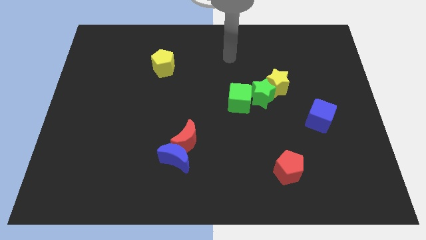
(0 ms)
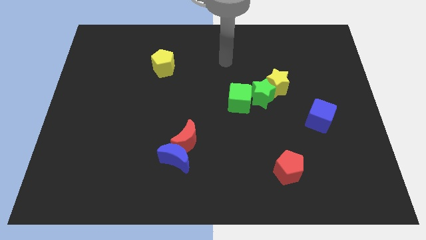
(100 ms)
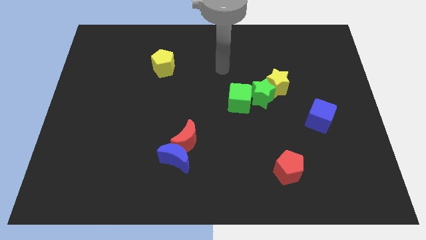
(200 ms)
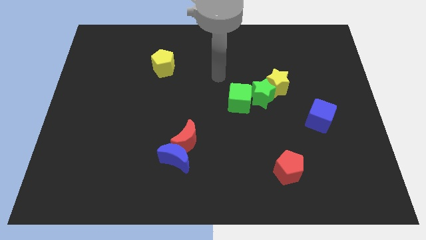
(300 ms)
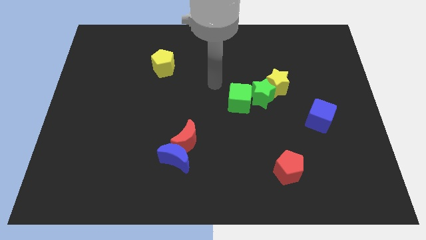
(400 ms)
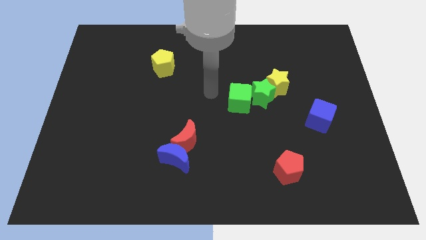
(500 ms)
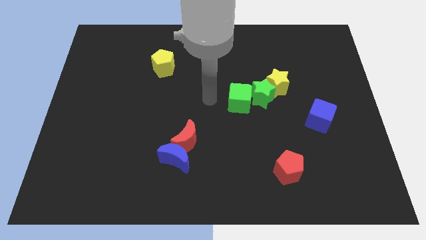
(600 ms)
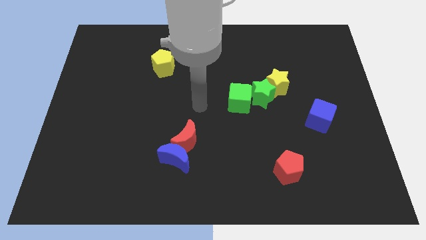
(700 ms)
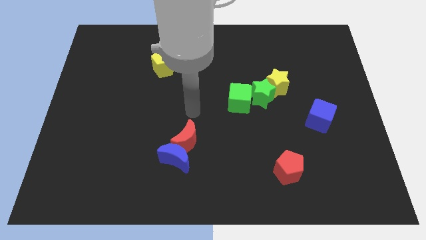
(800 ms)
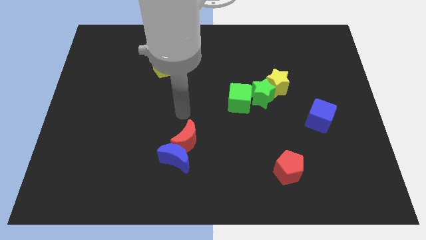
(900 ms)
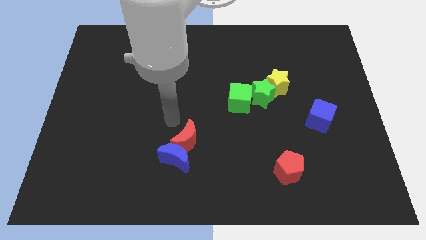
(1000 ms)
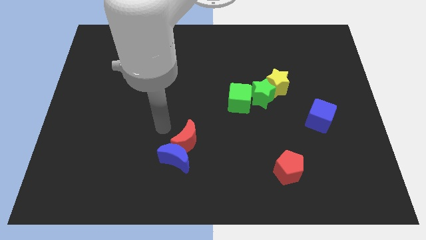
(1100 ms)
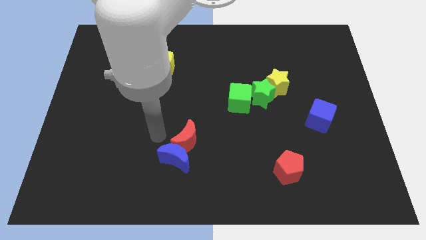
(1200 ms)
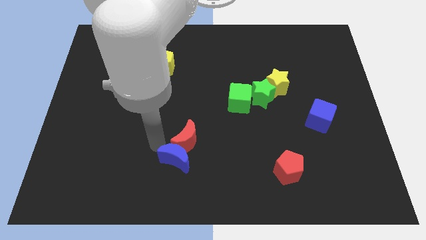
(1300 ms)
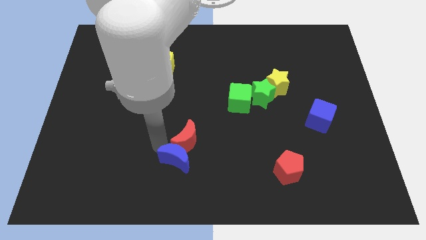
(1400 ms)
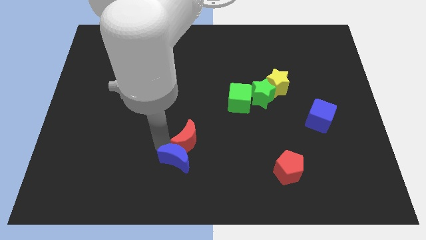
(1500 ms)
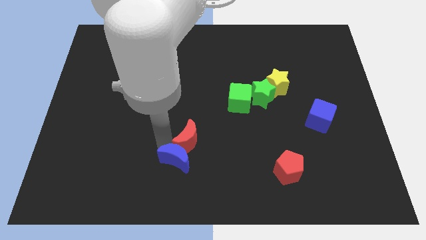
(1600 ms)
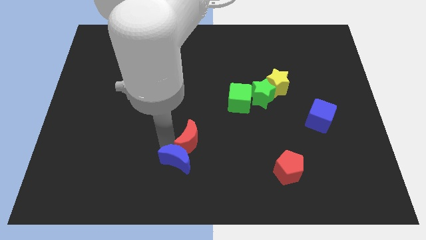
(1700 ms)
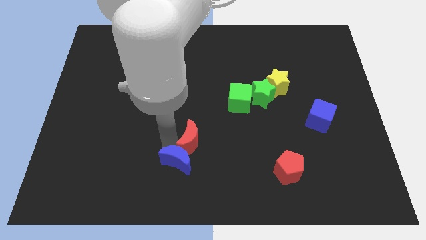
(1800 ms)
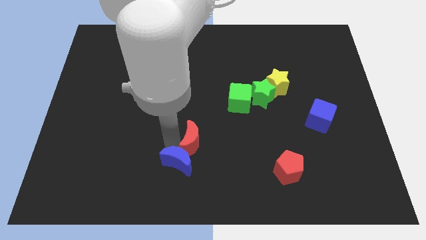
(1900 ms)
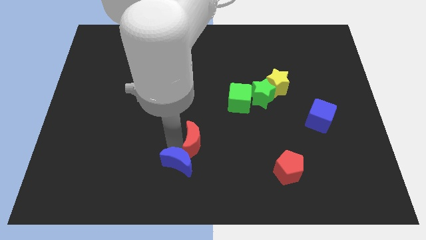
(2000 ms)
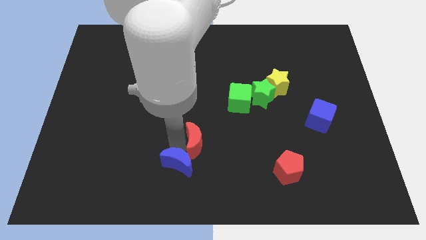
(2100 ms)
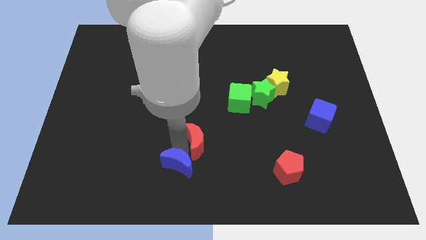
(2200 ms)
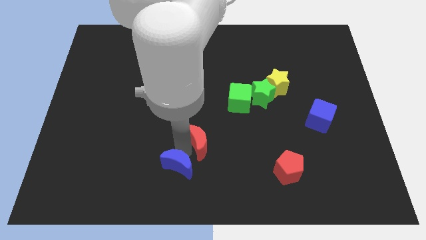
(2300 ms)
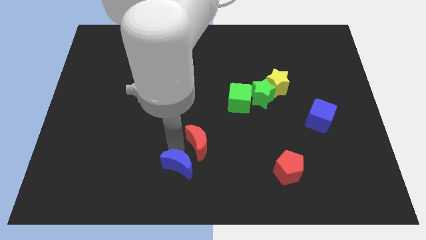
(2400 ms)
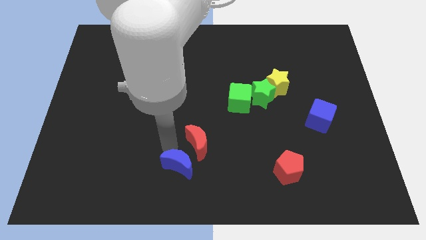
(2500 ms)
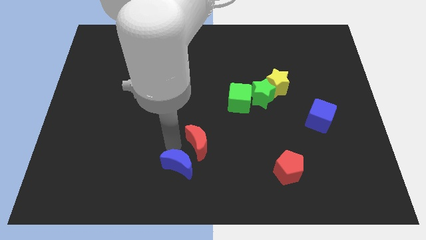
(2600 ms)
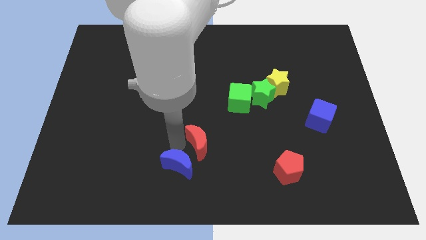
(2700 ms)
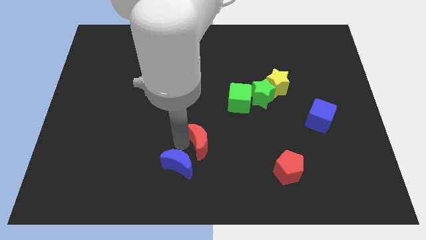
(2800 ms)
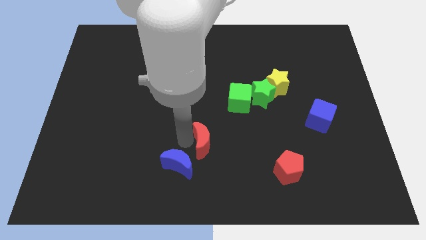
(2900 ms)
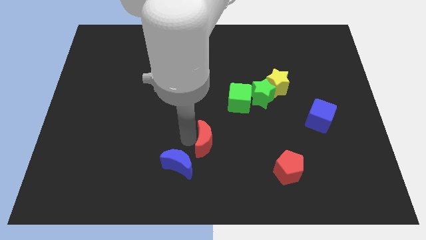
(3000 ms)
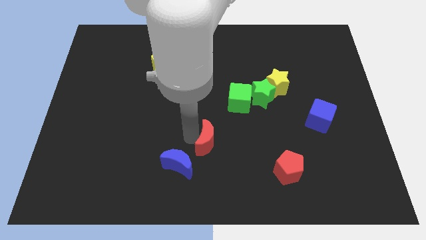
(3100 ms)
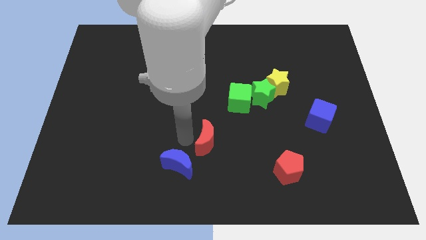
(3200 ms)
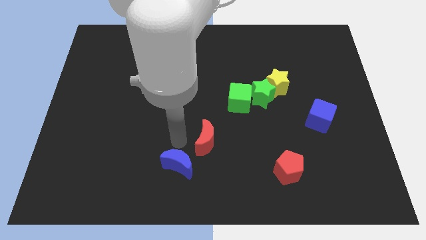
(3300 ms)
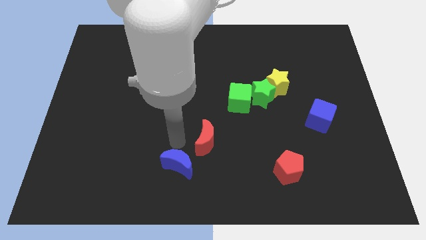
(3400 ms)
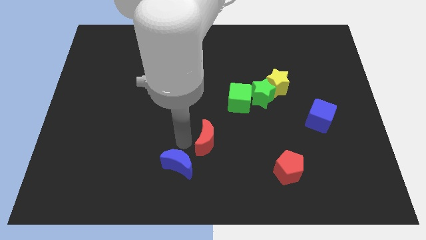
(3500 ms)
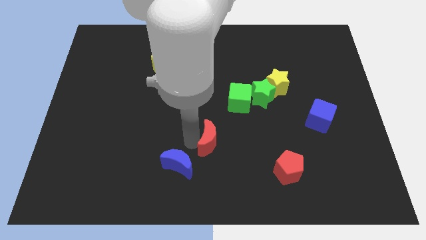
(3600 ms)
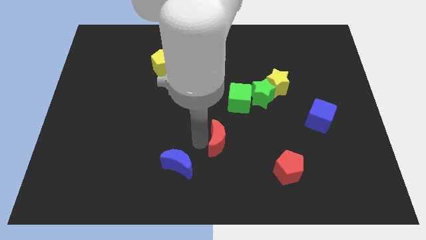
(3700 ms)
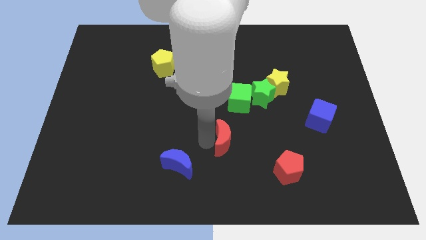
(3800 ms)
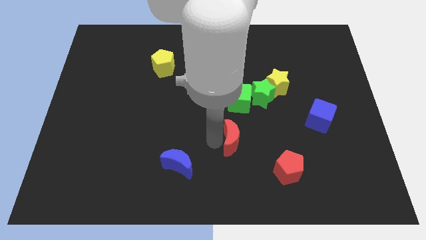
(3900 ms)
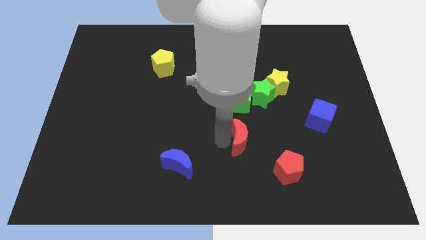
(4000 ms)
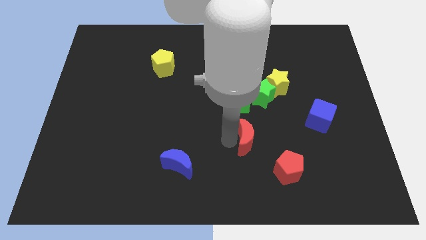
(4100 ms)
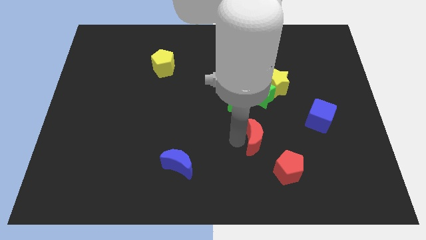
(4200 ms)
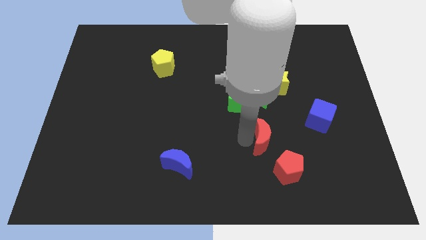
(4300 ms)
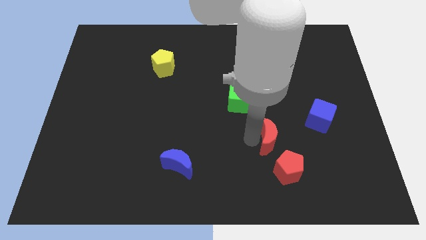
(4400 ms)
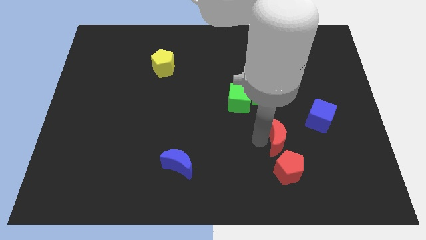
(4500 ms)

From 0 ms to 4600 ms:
move the red moon right

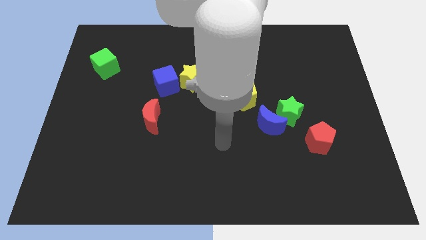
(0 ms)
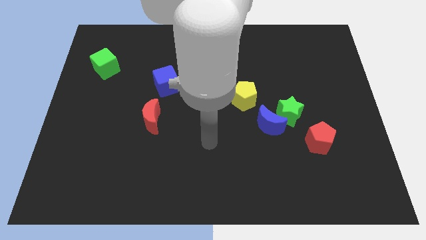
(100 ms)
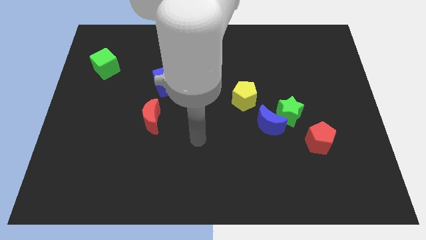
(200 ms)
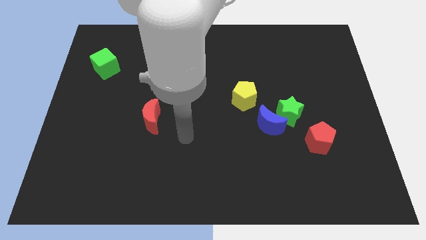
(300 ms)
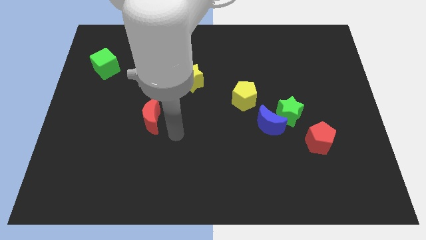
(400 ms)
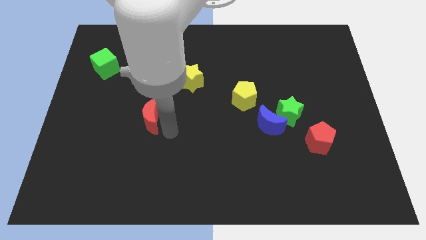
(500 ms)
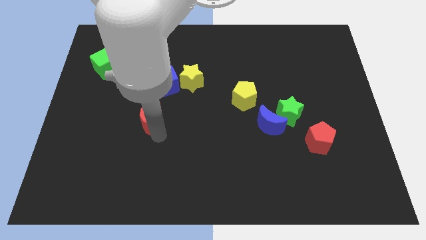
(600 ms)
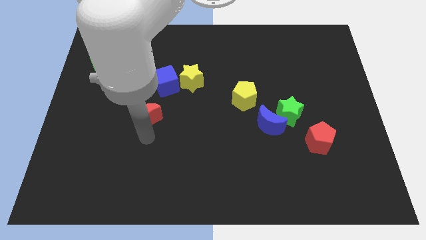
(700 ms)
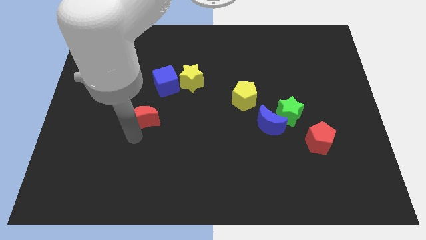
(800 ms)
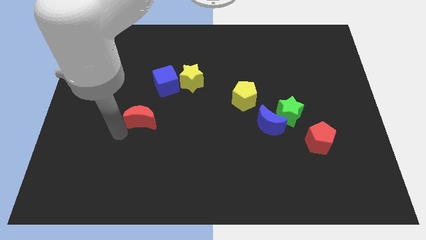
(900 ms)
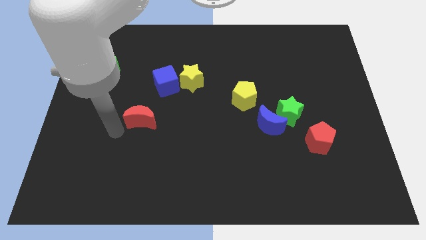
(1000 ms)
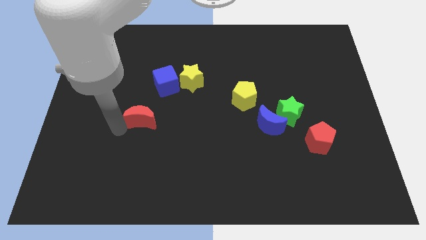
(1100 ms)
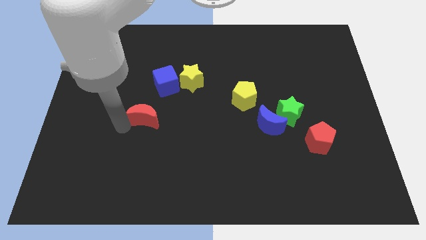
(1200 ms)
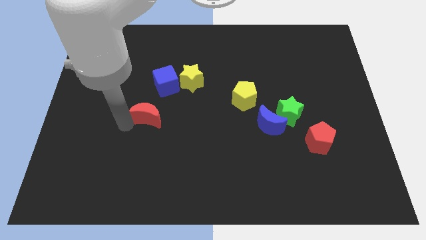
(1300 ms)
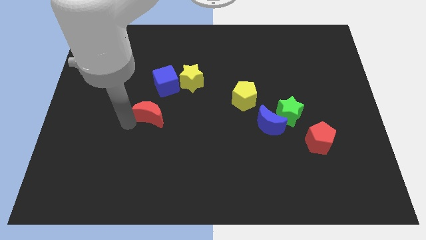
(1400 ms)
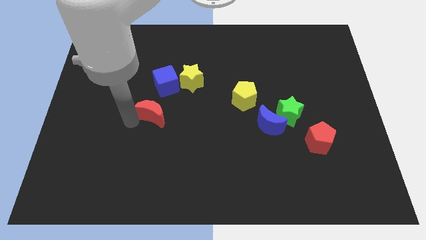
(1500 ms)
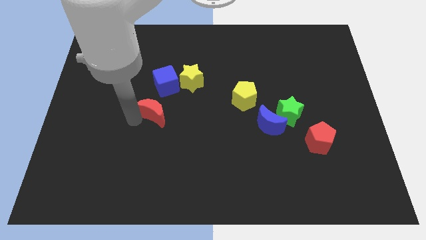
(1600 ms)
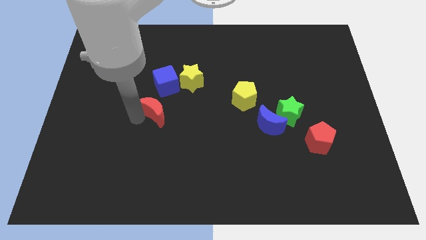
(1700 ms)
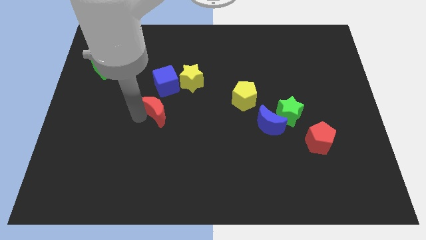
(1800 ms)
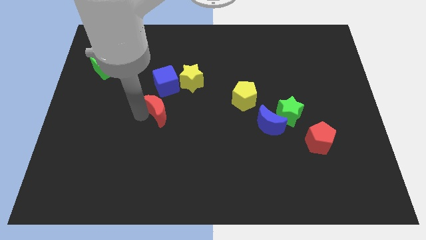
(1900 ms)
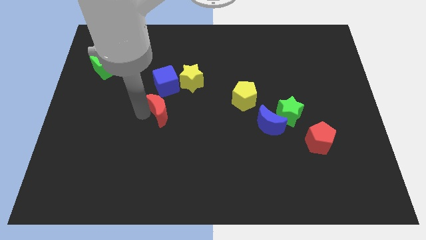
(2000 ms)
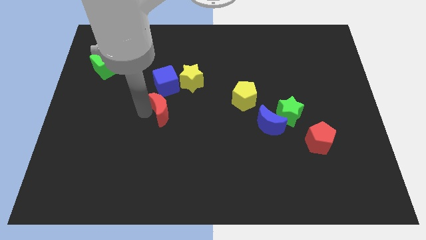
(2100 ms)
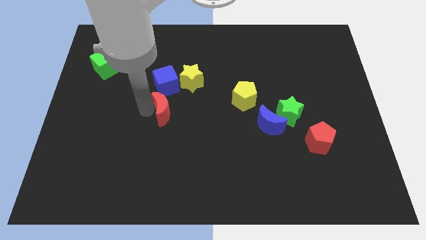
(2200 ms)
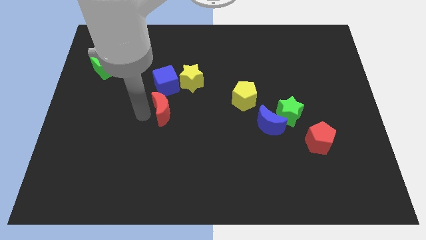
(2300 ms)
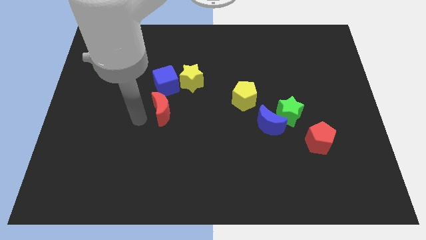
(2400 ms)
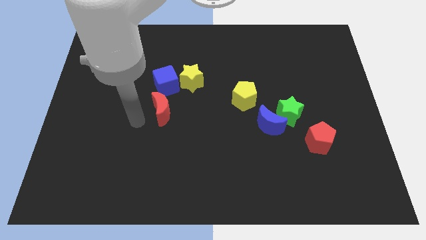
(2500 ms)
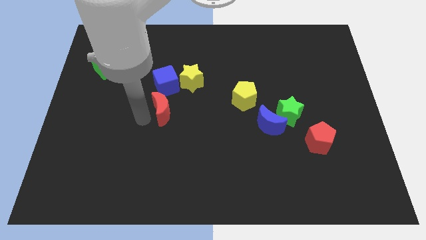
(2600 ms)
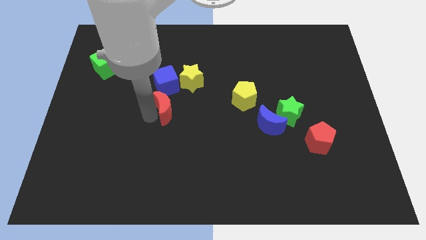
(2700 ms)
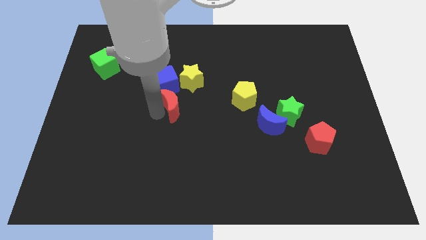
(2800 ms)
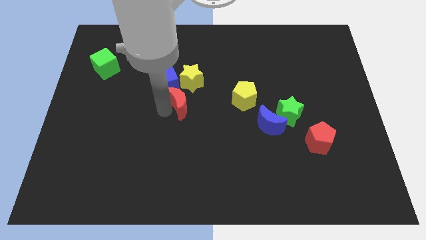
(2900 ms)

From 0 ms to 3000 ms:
move the red moon slightly diagonally up and right

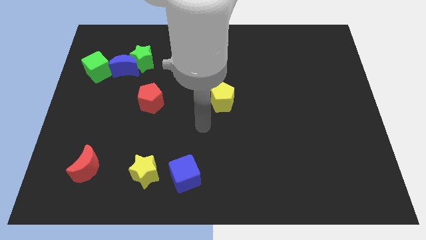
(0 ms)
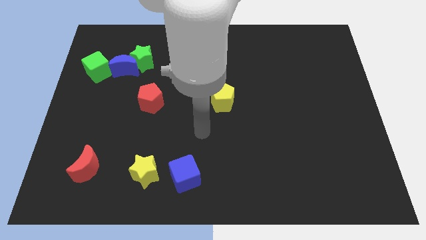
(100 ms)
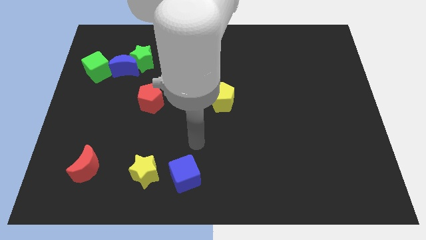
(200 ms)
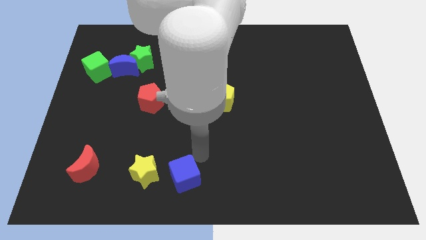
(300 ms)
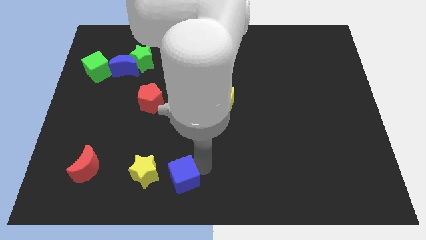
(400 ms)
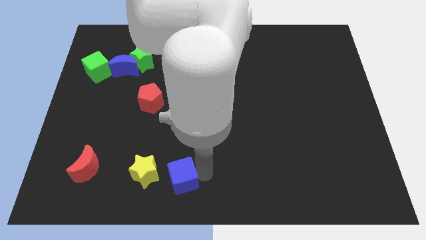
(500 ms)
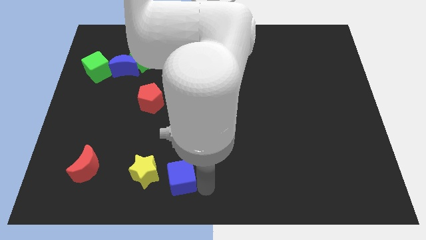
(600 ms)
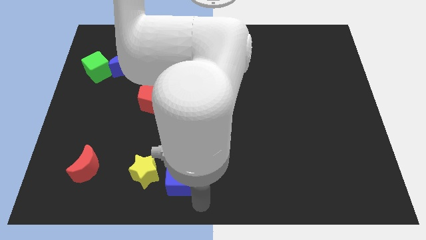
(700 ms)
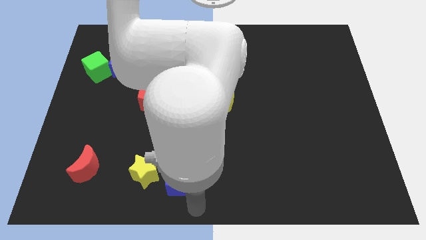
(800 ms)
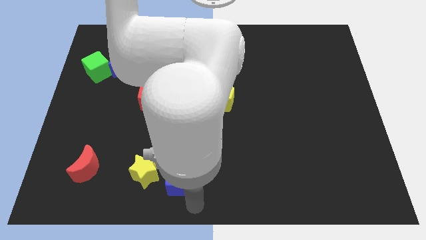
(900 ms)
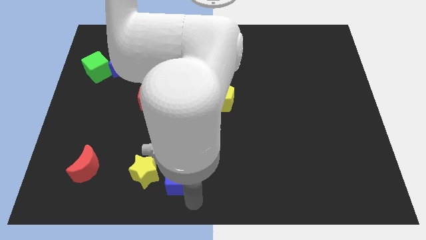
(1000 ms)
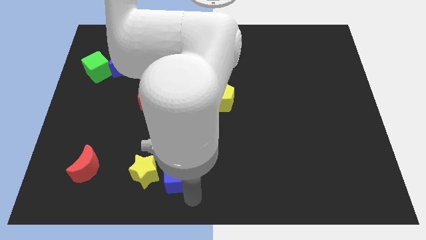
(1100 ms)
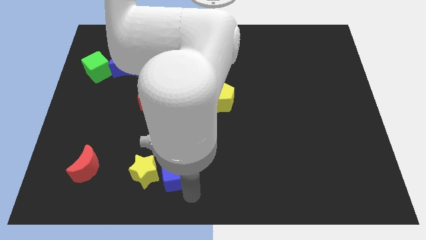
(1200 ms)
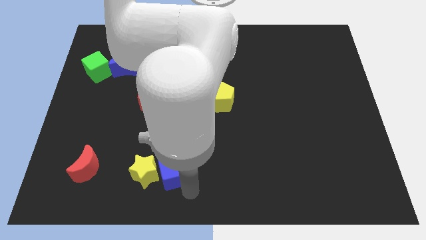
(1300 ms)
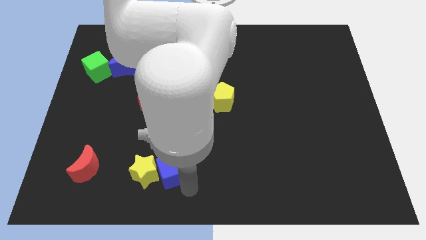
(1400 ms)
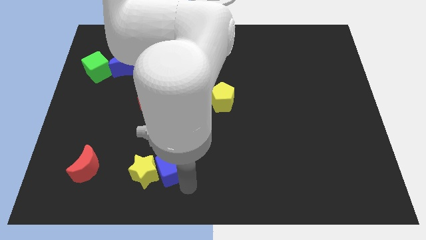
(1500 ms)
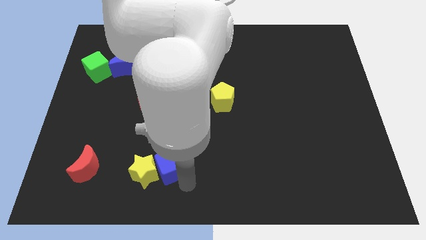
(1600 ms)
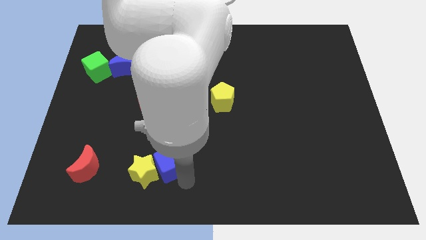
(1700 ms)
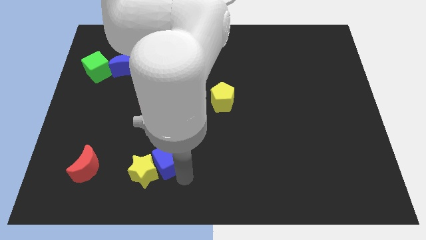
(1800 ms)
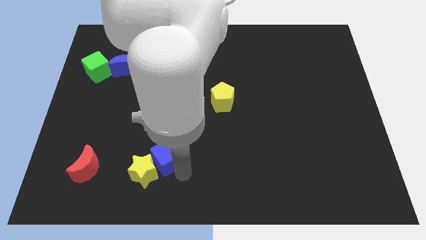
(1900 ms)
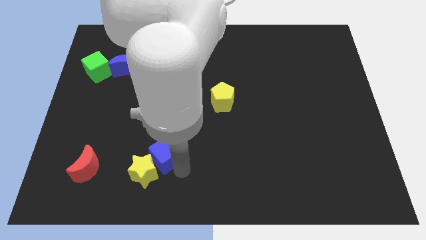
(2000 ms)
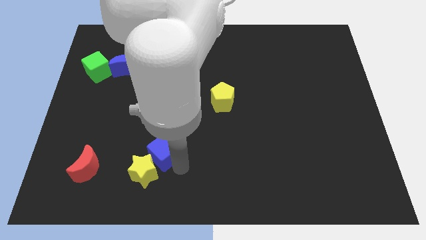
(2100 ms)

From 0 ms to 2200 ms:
slide the blue cube a little up and left diagonally
